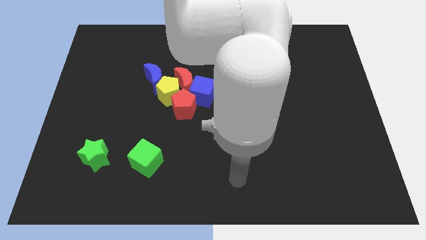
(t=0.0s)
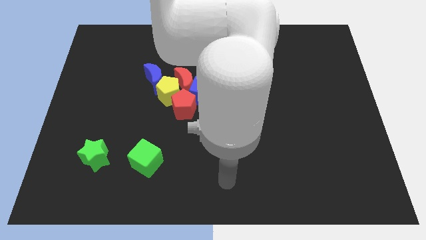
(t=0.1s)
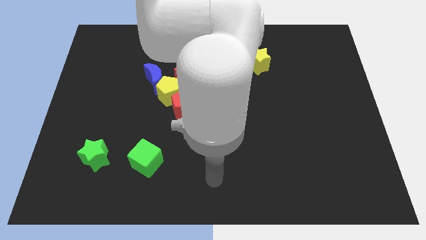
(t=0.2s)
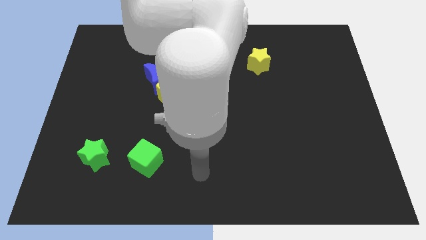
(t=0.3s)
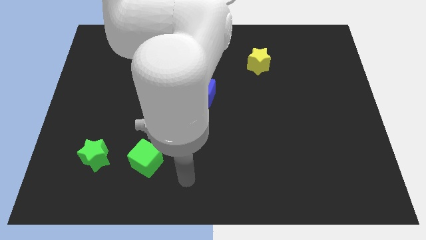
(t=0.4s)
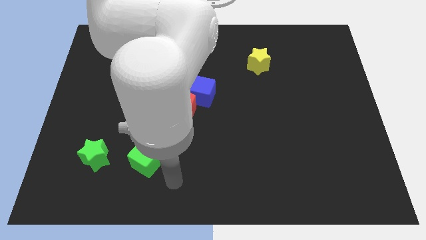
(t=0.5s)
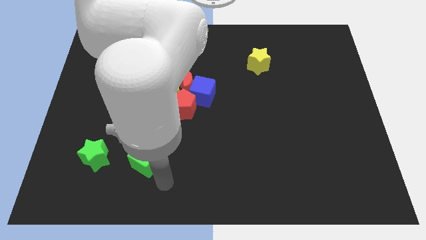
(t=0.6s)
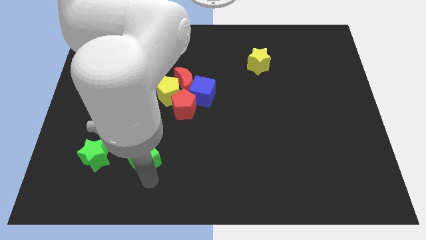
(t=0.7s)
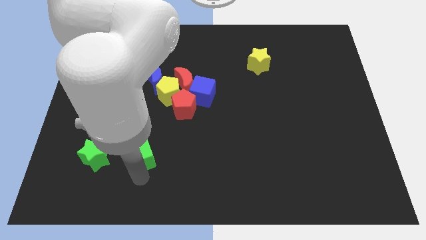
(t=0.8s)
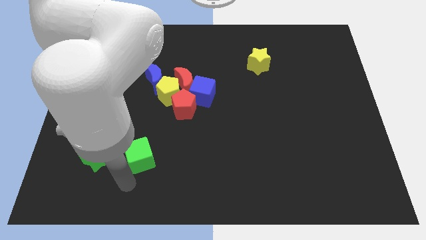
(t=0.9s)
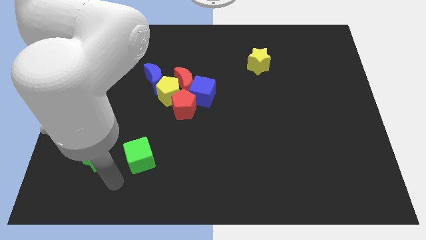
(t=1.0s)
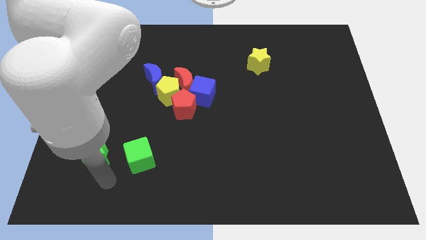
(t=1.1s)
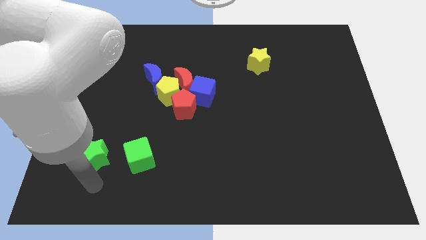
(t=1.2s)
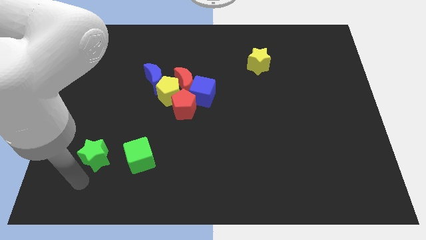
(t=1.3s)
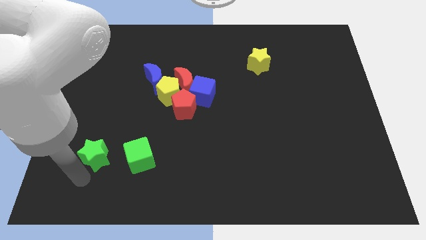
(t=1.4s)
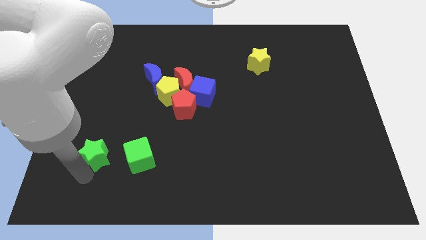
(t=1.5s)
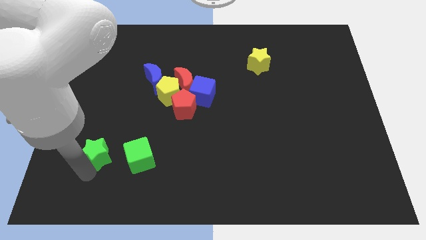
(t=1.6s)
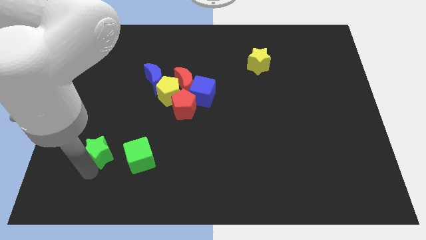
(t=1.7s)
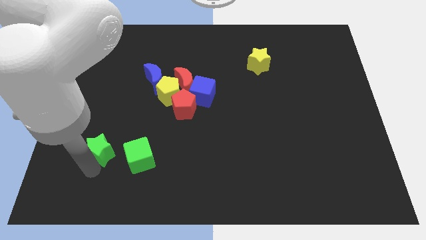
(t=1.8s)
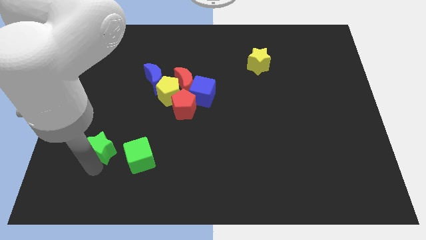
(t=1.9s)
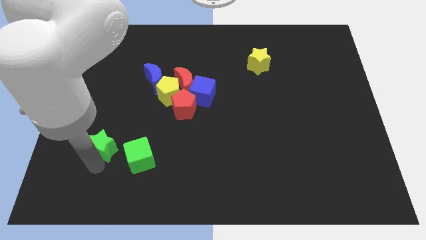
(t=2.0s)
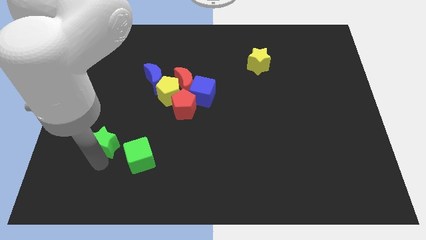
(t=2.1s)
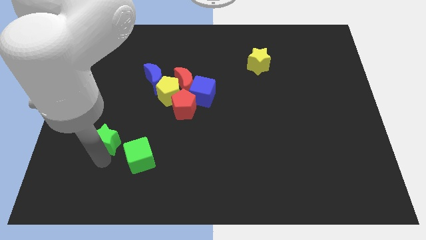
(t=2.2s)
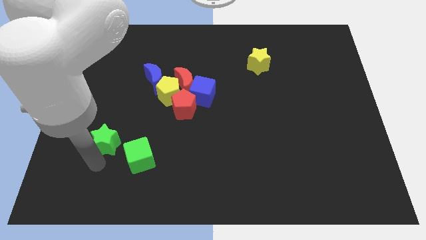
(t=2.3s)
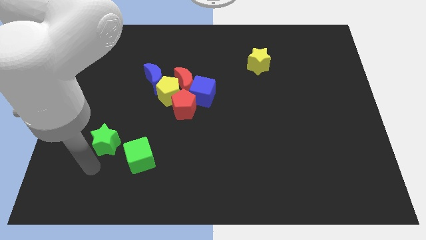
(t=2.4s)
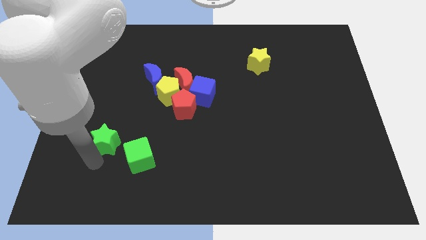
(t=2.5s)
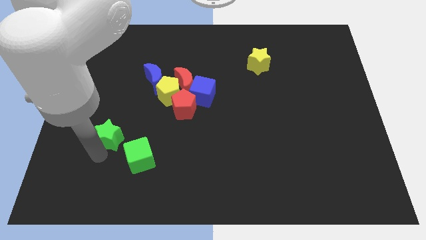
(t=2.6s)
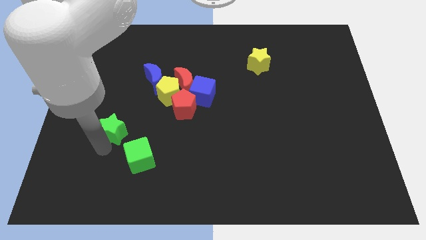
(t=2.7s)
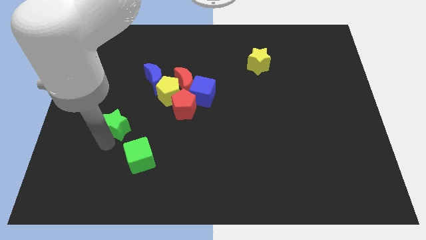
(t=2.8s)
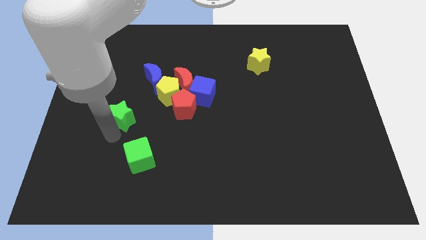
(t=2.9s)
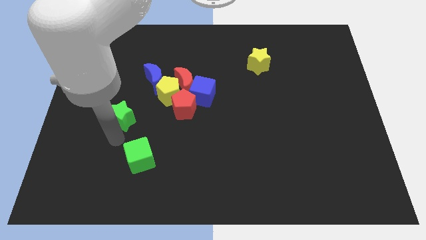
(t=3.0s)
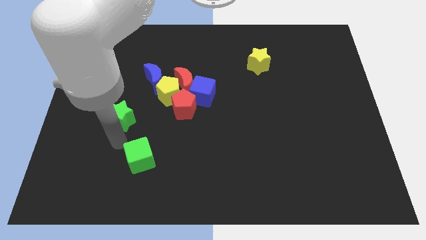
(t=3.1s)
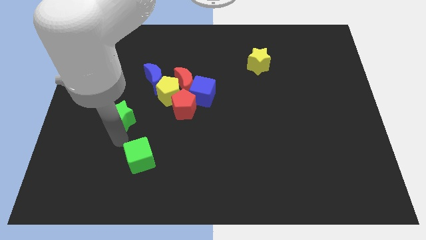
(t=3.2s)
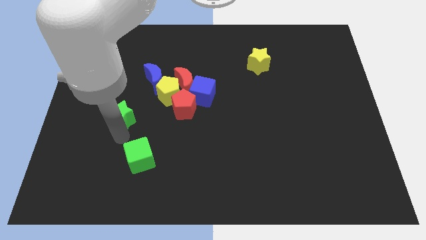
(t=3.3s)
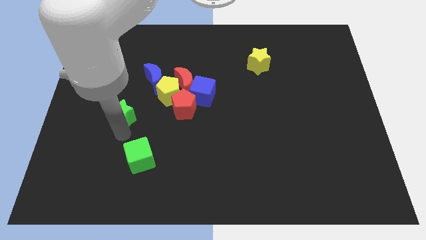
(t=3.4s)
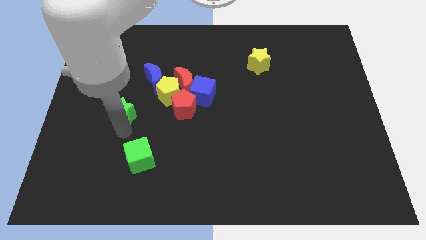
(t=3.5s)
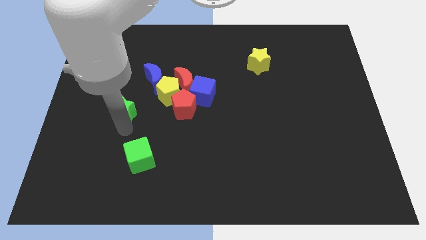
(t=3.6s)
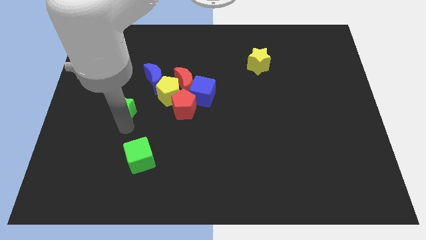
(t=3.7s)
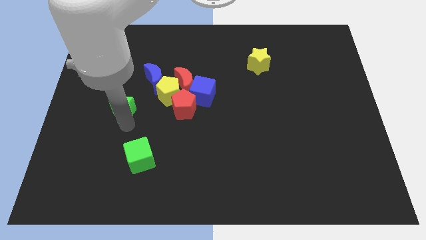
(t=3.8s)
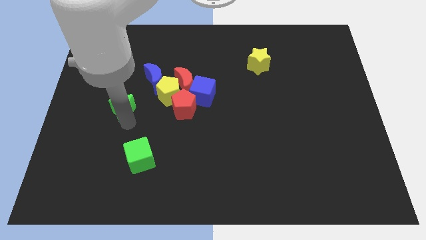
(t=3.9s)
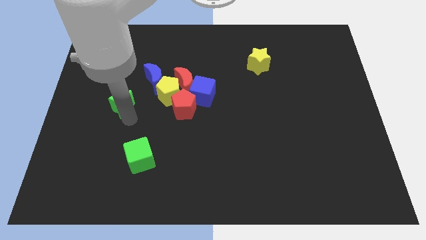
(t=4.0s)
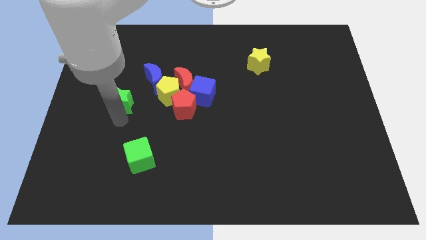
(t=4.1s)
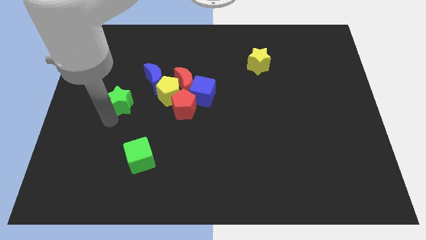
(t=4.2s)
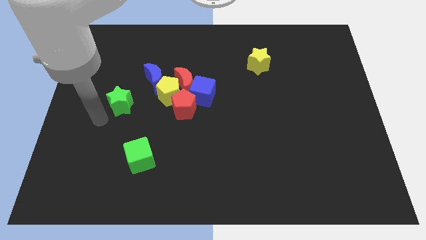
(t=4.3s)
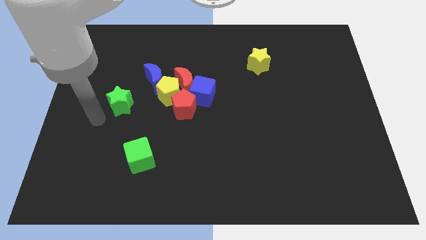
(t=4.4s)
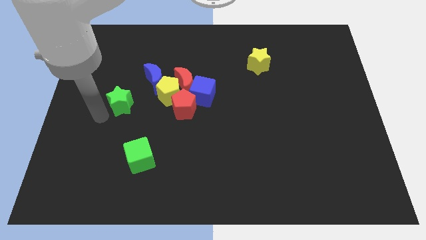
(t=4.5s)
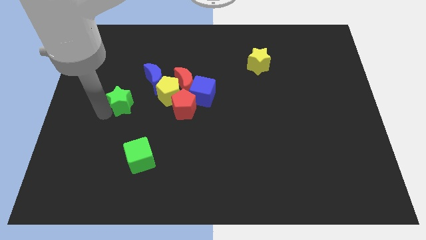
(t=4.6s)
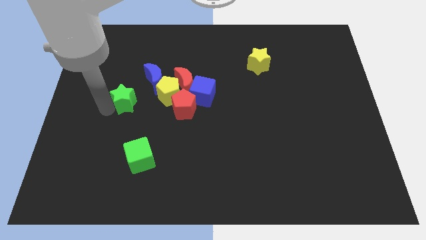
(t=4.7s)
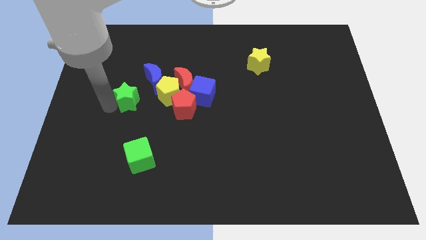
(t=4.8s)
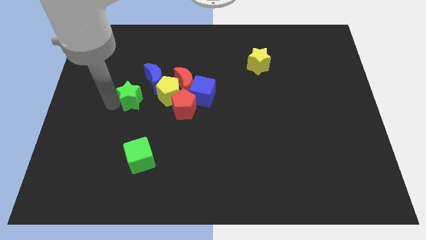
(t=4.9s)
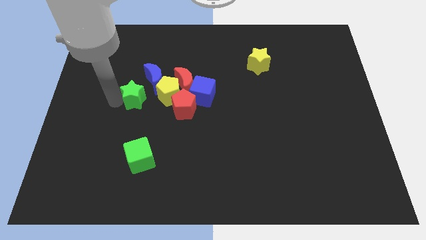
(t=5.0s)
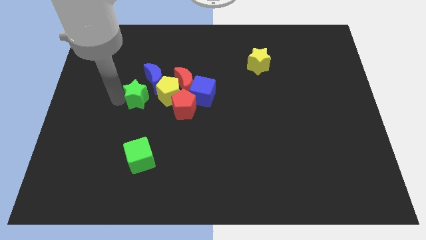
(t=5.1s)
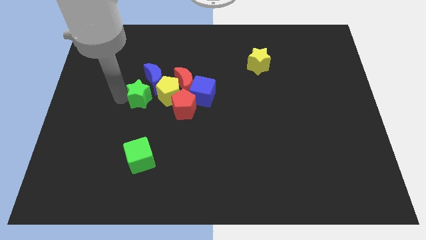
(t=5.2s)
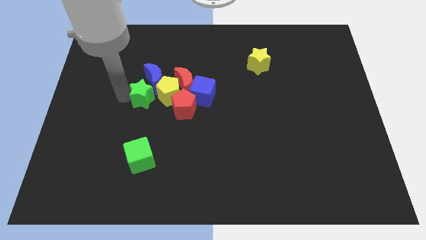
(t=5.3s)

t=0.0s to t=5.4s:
move the green star next to the blue moon

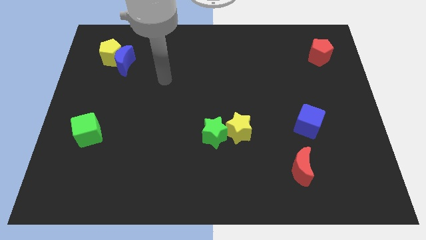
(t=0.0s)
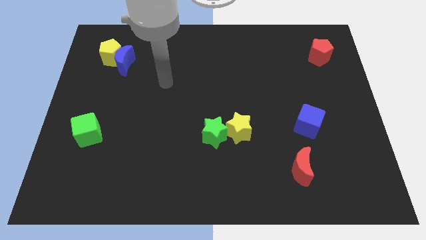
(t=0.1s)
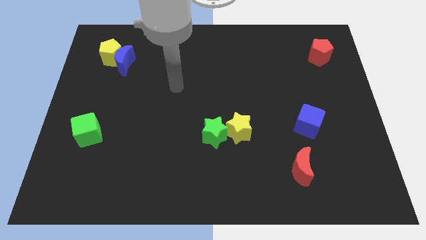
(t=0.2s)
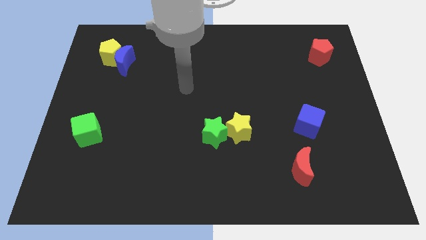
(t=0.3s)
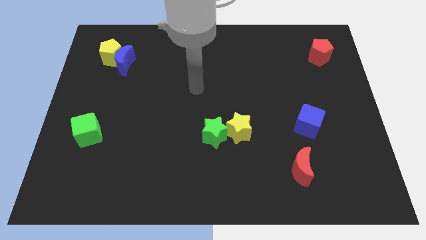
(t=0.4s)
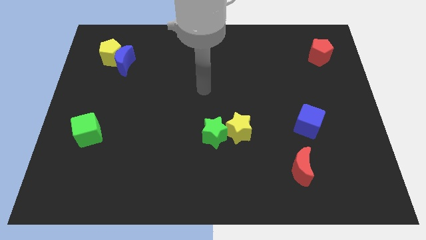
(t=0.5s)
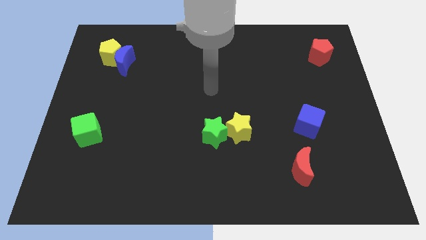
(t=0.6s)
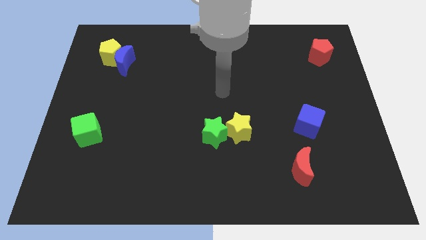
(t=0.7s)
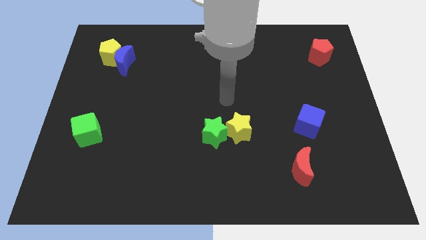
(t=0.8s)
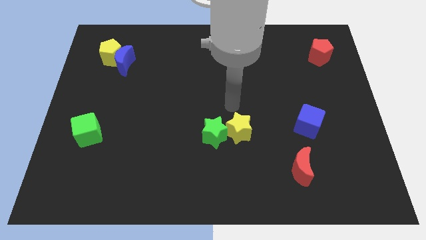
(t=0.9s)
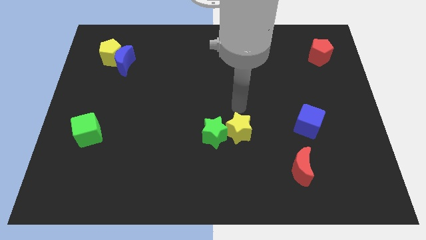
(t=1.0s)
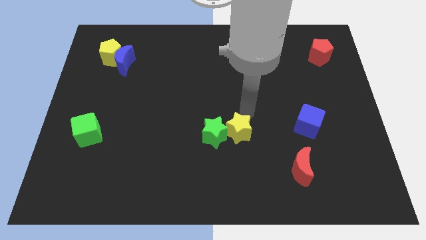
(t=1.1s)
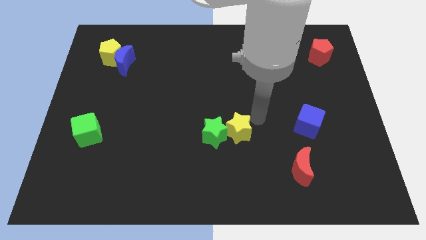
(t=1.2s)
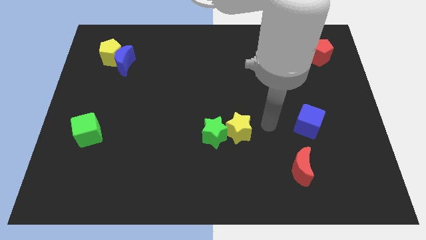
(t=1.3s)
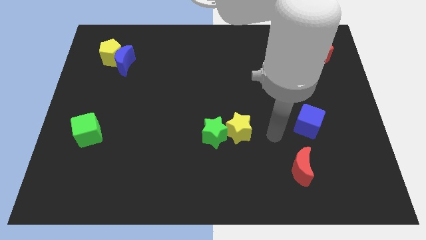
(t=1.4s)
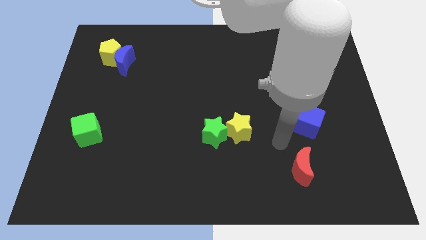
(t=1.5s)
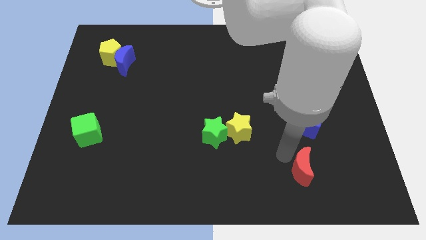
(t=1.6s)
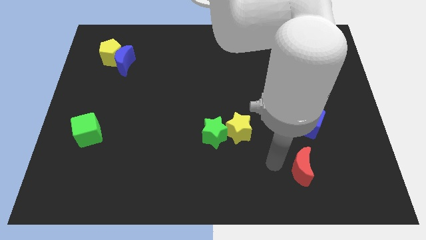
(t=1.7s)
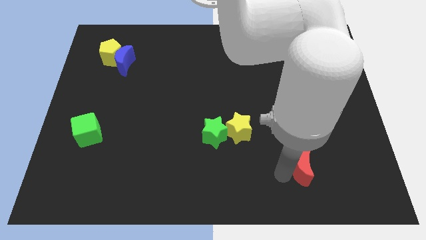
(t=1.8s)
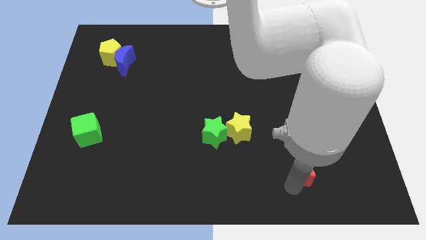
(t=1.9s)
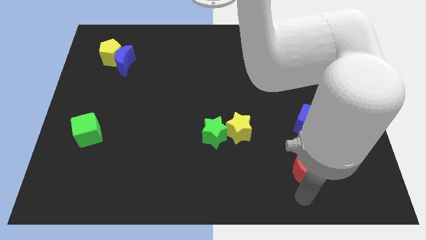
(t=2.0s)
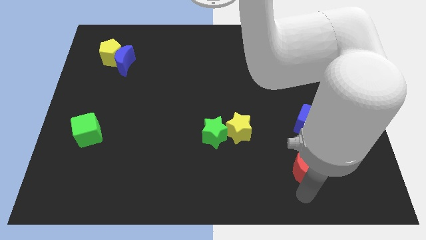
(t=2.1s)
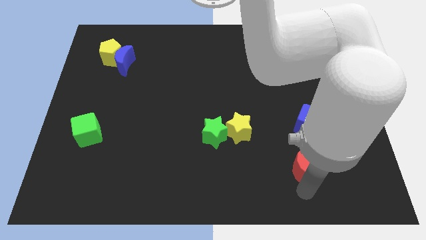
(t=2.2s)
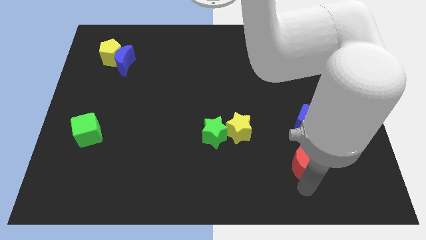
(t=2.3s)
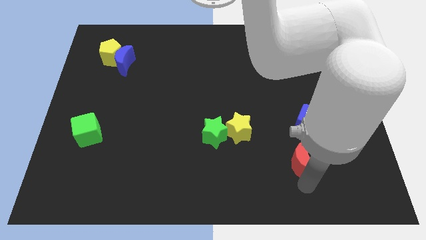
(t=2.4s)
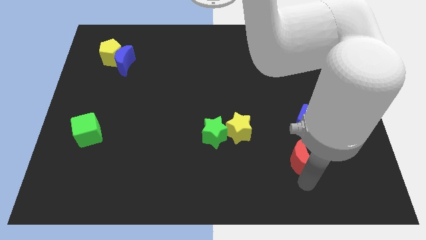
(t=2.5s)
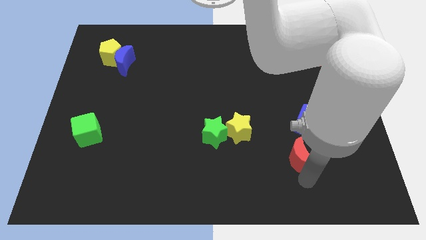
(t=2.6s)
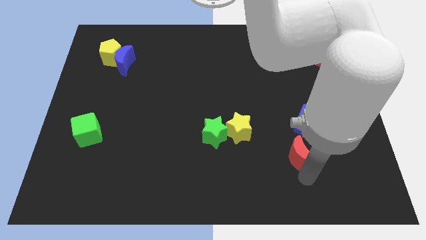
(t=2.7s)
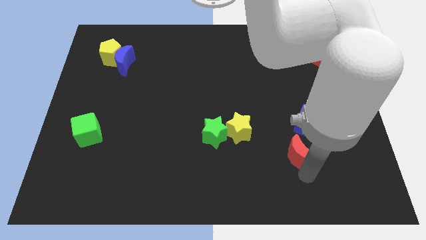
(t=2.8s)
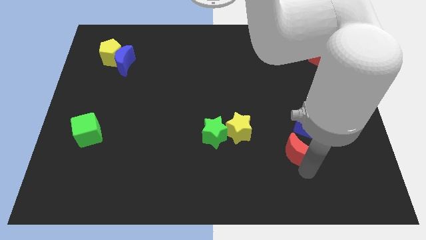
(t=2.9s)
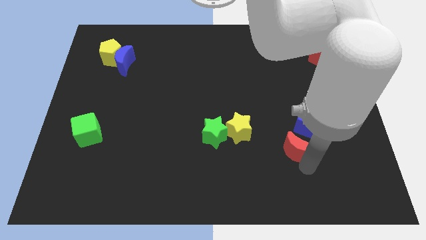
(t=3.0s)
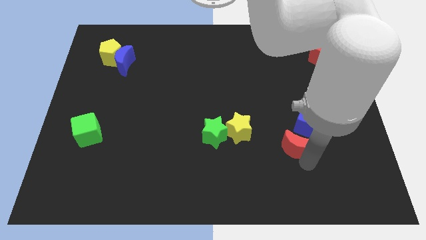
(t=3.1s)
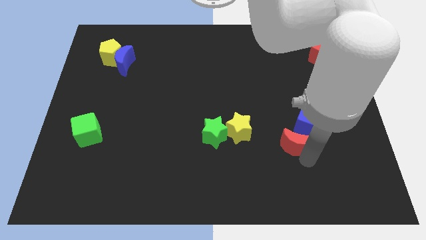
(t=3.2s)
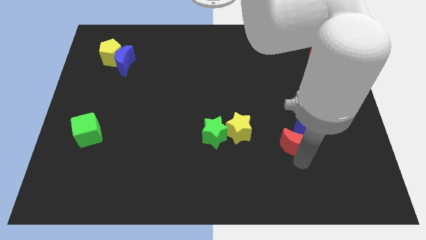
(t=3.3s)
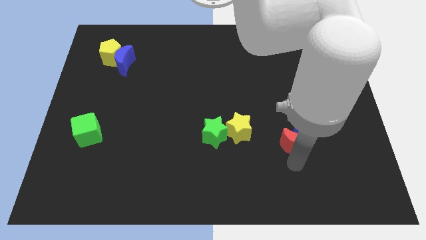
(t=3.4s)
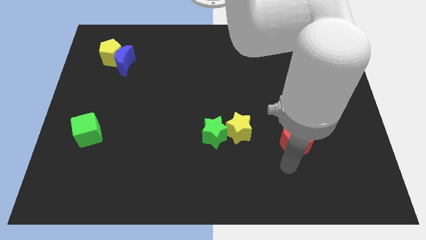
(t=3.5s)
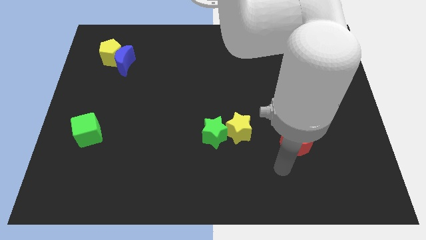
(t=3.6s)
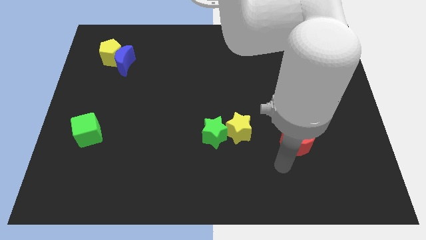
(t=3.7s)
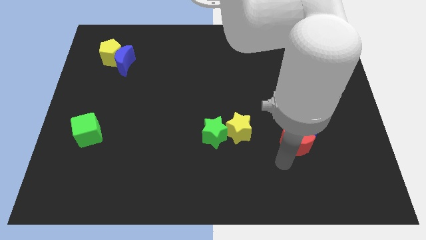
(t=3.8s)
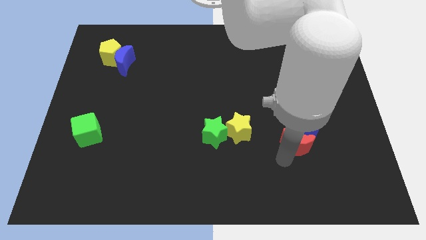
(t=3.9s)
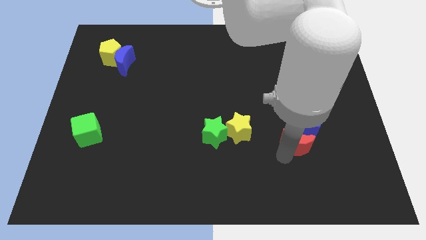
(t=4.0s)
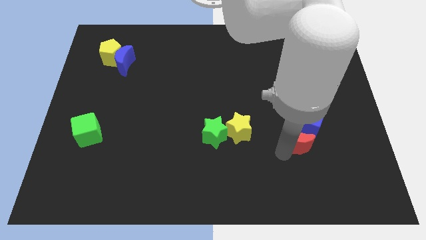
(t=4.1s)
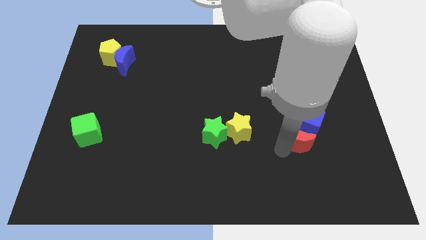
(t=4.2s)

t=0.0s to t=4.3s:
slide the red moon towards the blue cube
